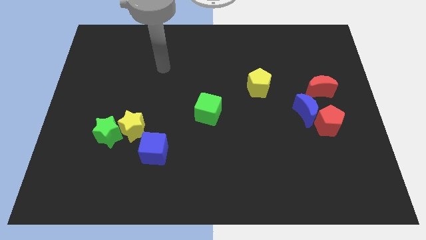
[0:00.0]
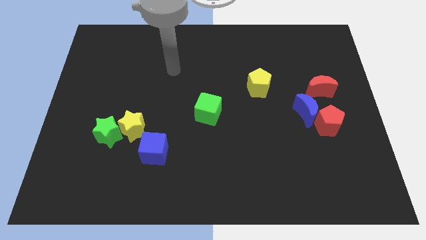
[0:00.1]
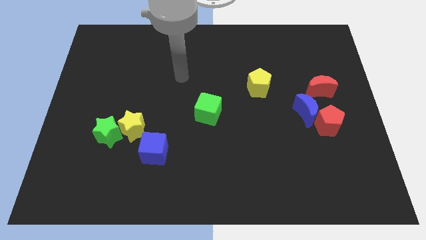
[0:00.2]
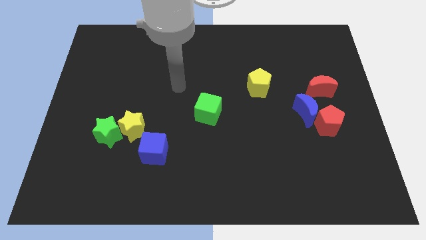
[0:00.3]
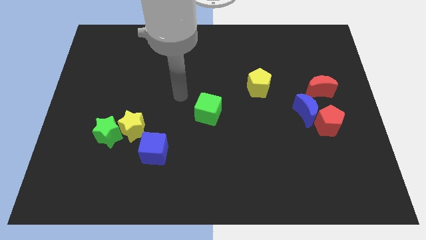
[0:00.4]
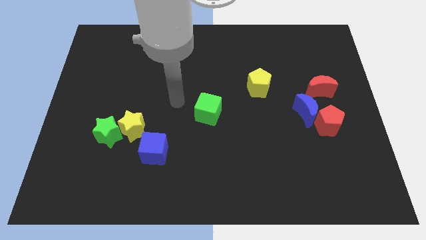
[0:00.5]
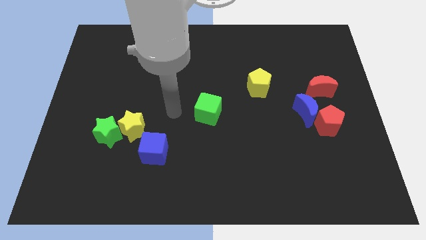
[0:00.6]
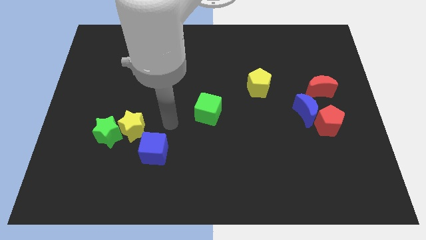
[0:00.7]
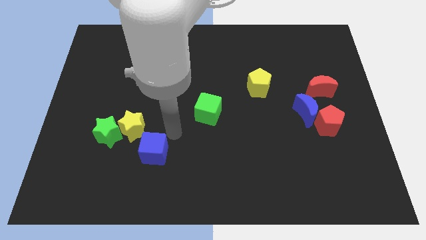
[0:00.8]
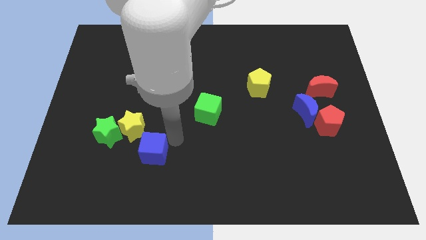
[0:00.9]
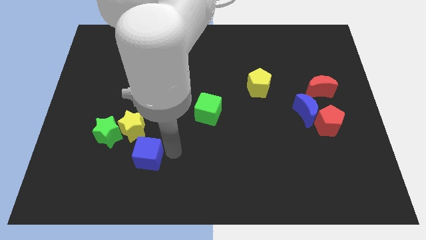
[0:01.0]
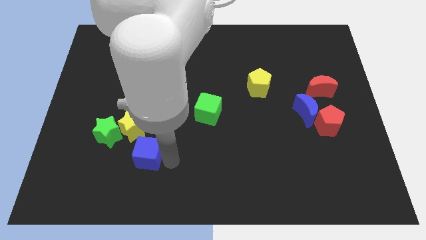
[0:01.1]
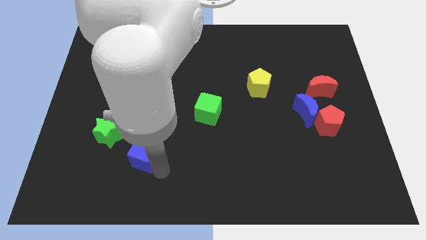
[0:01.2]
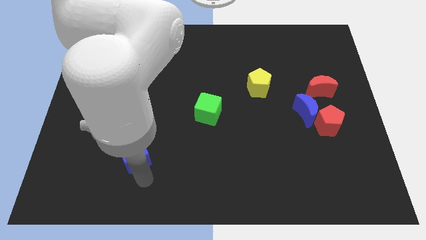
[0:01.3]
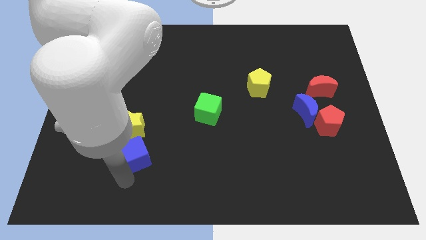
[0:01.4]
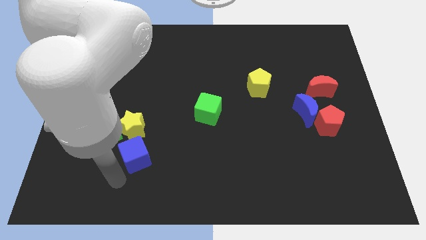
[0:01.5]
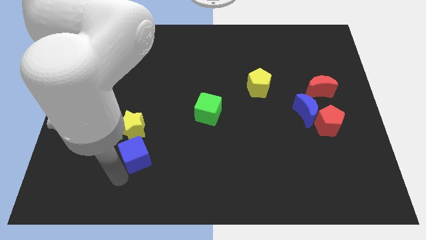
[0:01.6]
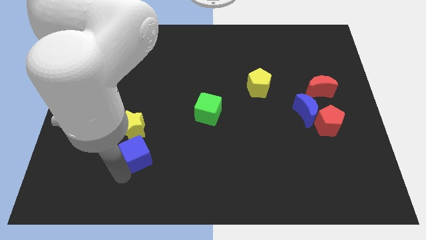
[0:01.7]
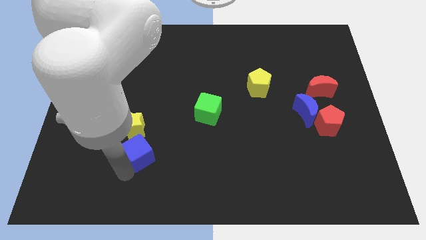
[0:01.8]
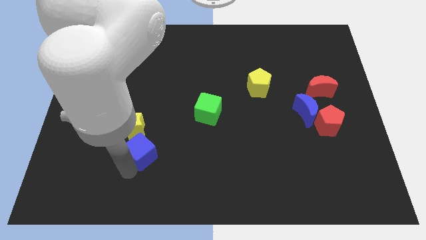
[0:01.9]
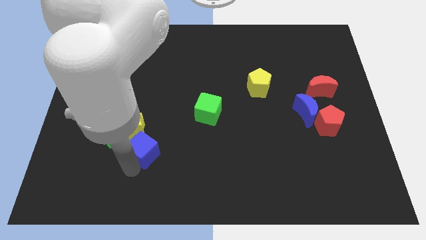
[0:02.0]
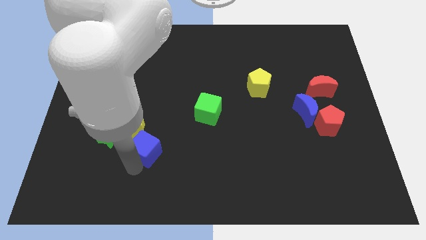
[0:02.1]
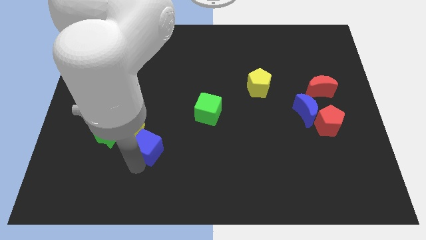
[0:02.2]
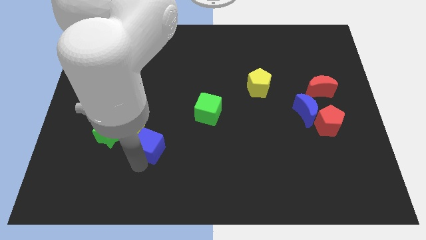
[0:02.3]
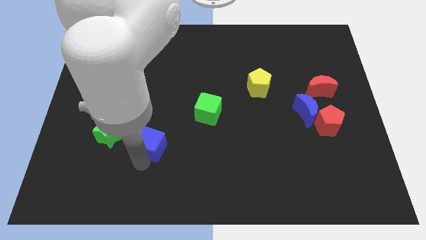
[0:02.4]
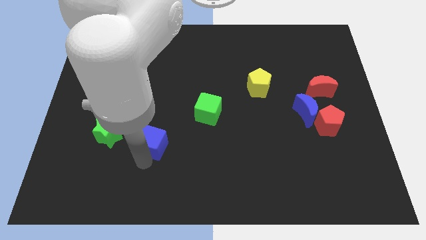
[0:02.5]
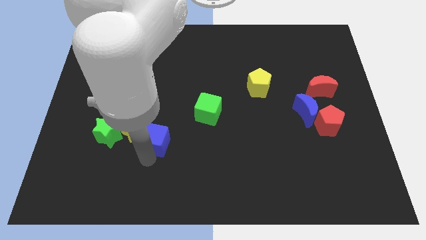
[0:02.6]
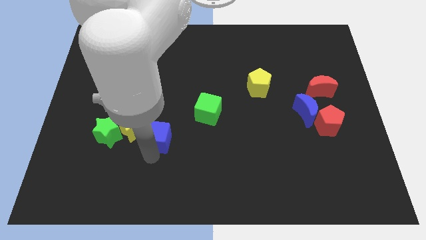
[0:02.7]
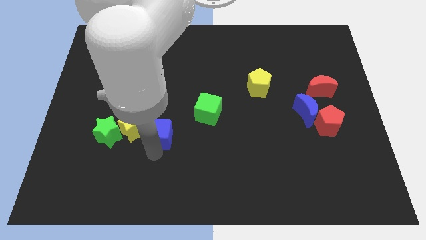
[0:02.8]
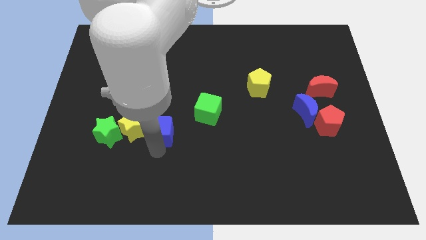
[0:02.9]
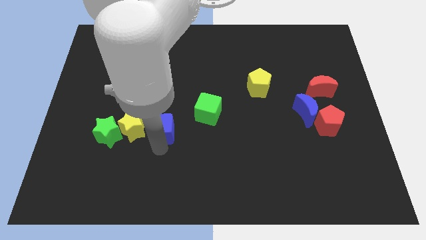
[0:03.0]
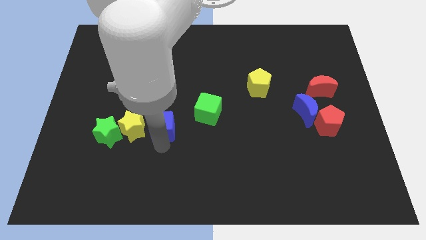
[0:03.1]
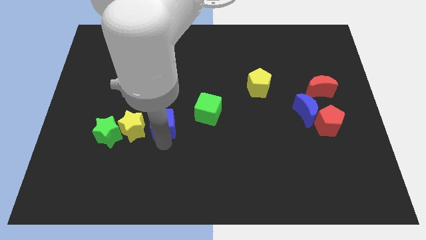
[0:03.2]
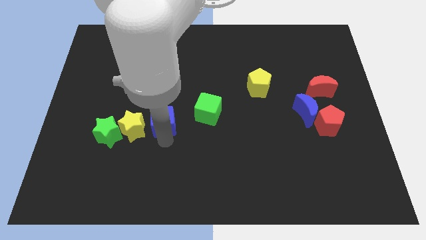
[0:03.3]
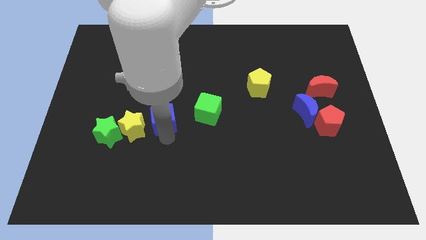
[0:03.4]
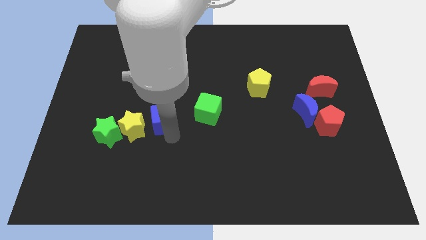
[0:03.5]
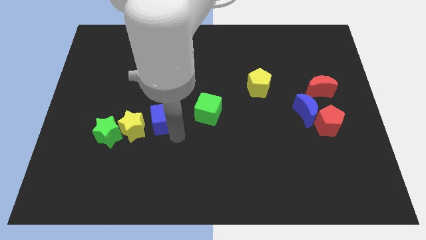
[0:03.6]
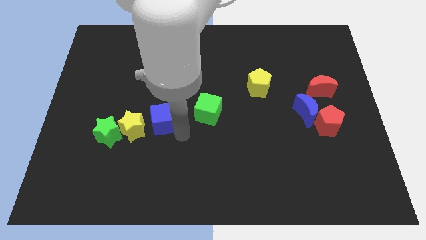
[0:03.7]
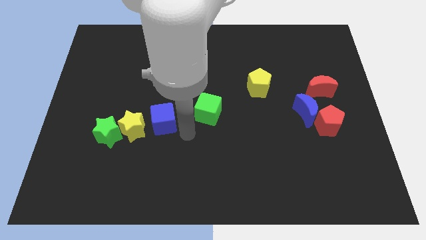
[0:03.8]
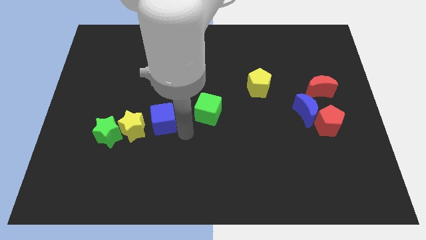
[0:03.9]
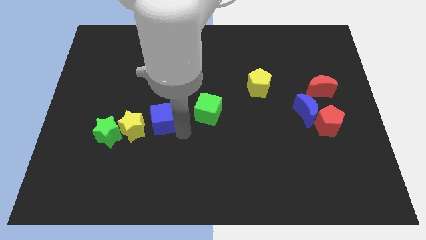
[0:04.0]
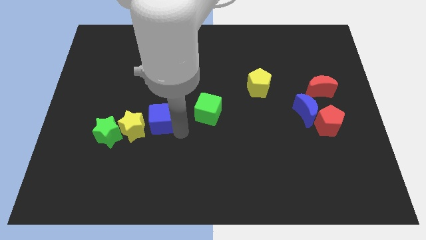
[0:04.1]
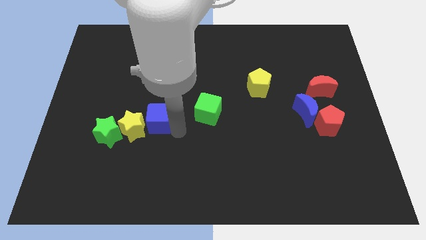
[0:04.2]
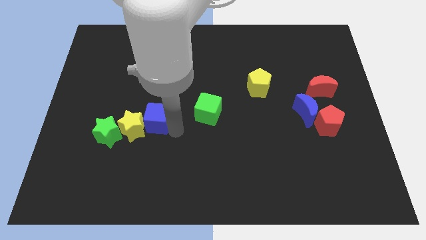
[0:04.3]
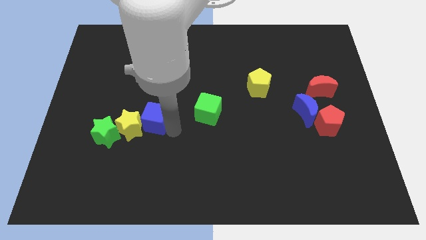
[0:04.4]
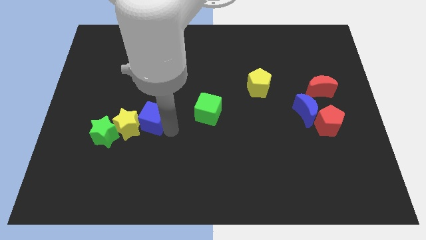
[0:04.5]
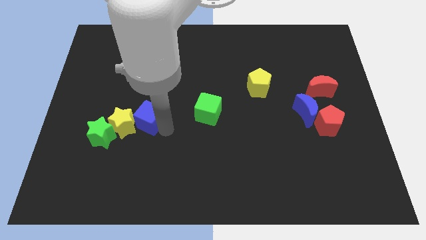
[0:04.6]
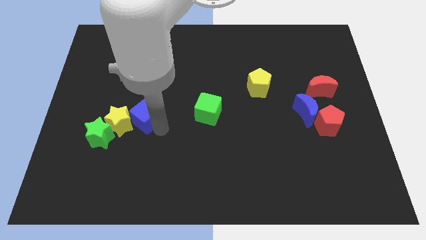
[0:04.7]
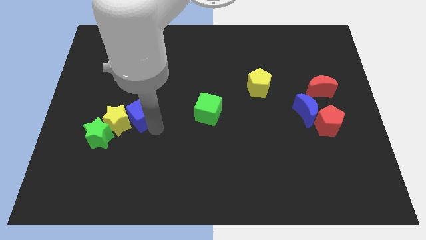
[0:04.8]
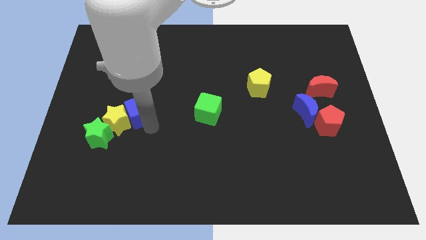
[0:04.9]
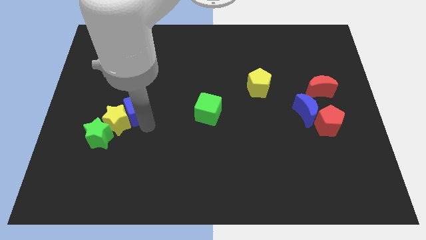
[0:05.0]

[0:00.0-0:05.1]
move the blue cube to the top of the yellow star

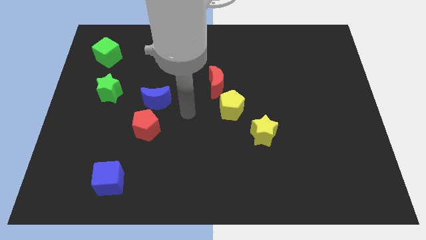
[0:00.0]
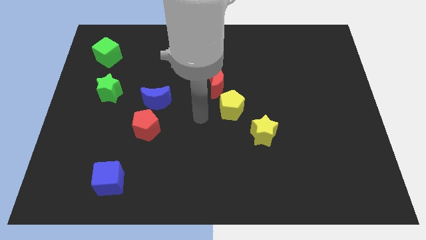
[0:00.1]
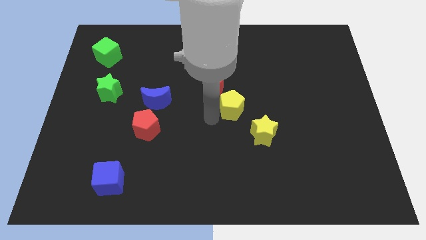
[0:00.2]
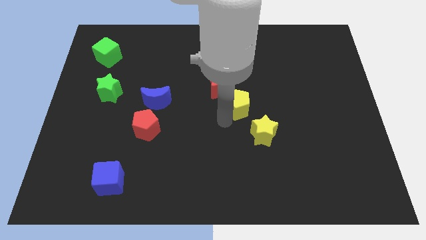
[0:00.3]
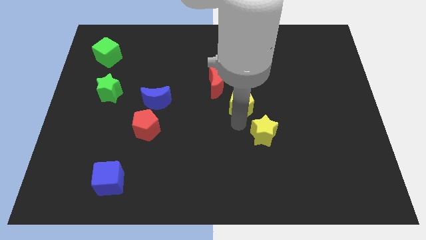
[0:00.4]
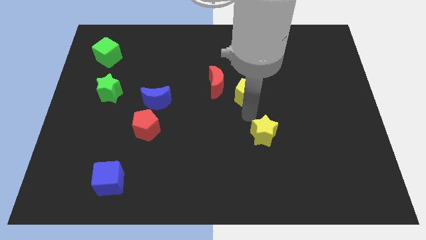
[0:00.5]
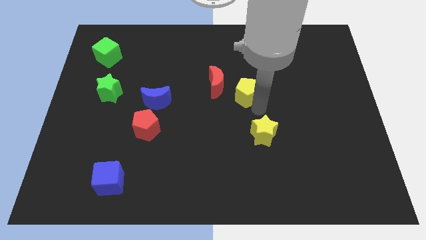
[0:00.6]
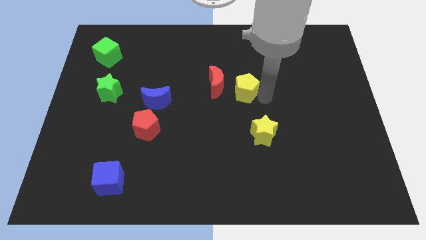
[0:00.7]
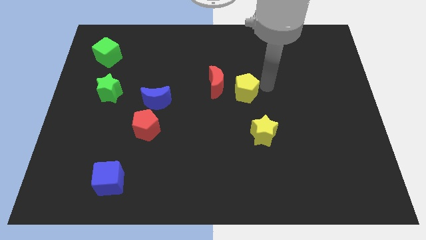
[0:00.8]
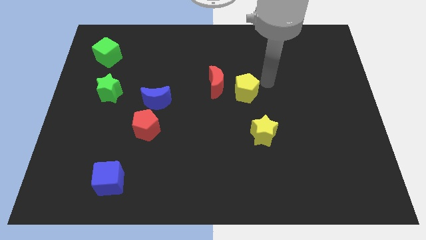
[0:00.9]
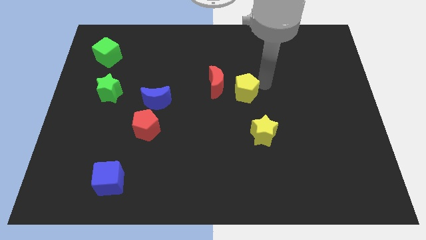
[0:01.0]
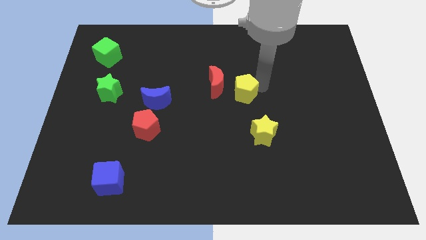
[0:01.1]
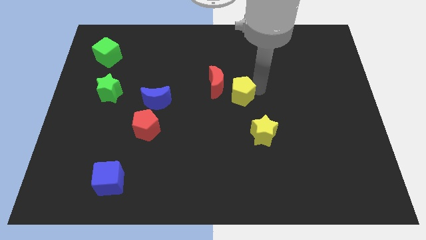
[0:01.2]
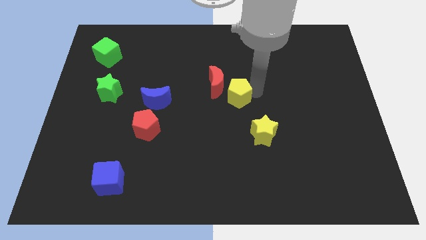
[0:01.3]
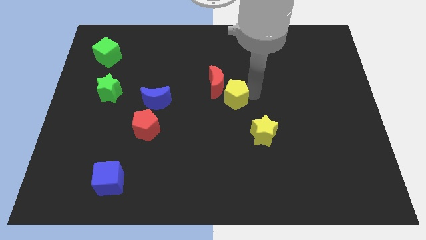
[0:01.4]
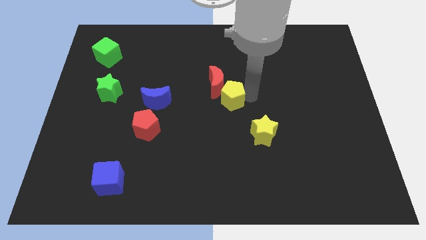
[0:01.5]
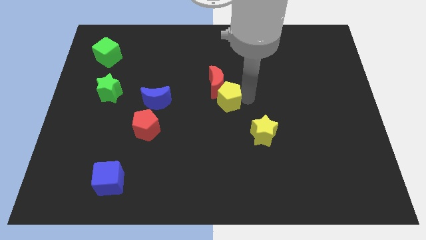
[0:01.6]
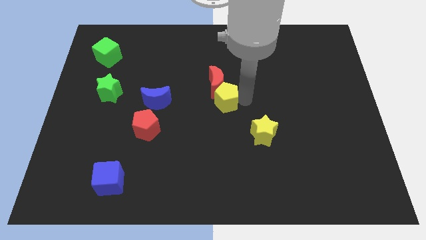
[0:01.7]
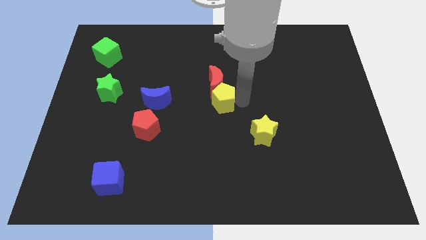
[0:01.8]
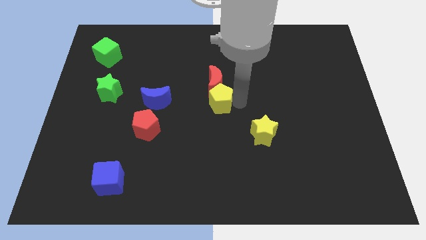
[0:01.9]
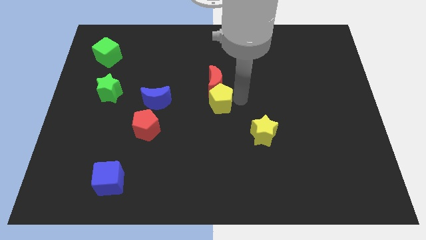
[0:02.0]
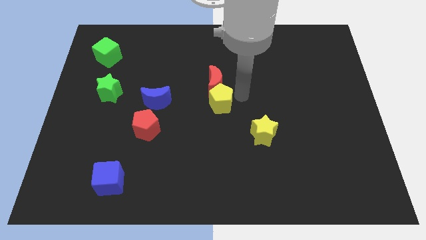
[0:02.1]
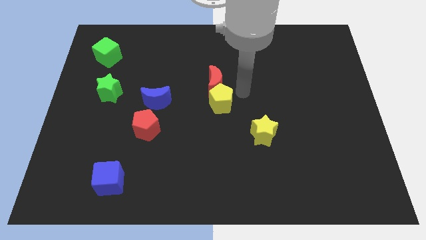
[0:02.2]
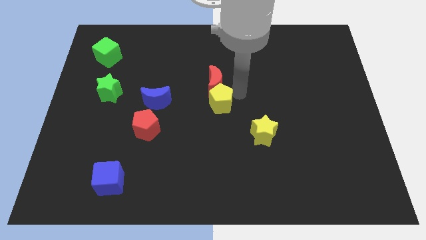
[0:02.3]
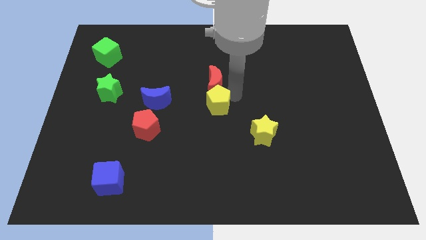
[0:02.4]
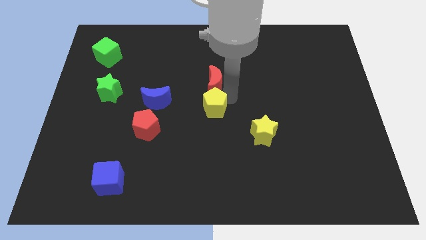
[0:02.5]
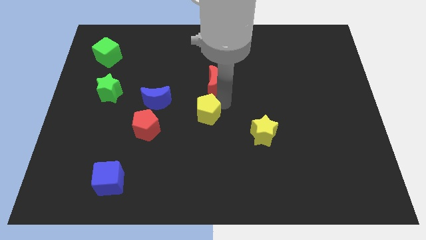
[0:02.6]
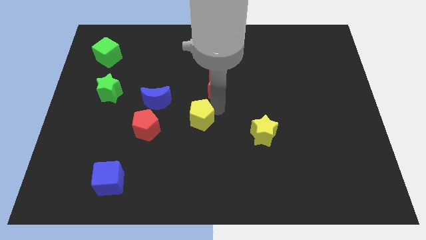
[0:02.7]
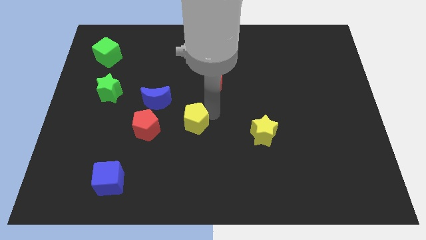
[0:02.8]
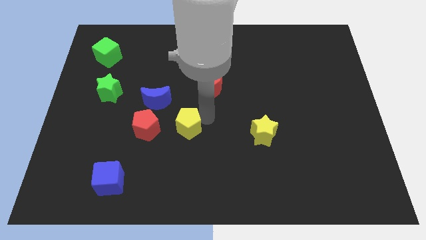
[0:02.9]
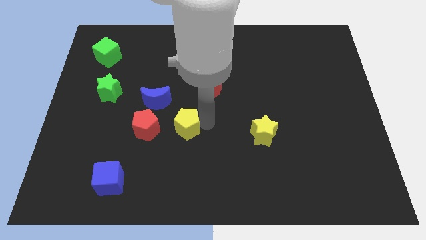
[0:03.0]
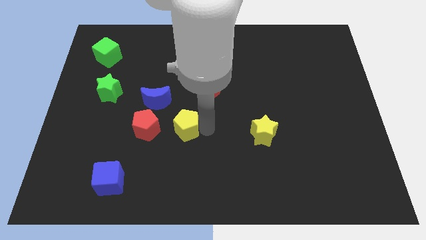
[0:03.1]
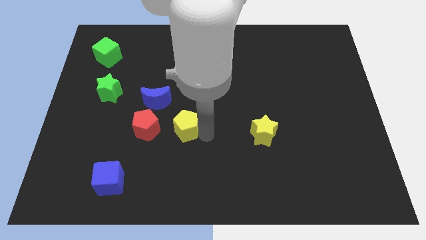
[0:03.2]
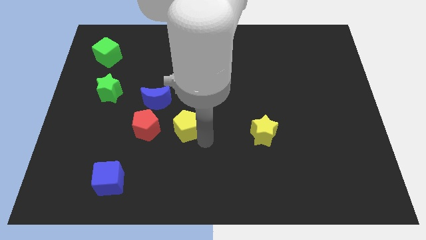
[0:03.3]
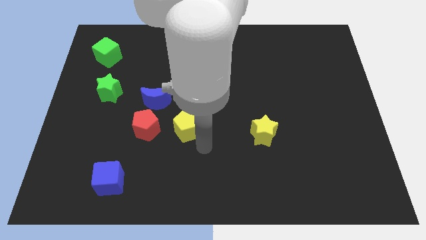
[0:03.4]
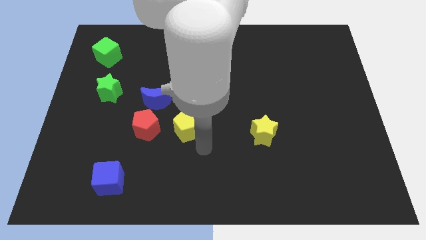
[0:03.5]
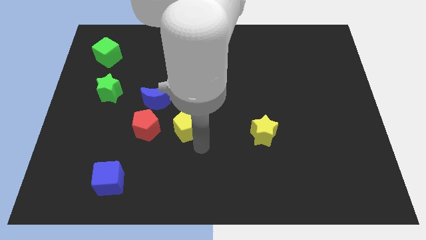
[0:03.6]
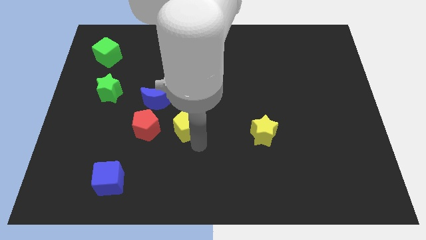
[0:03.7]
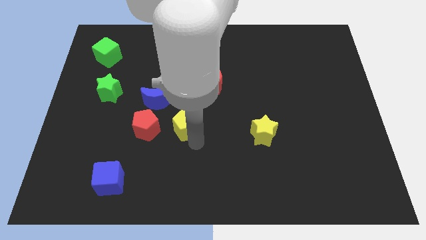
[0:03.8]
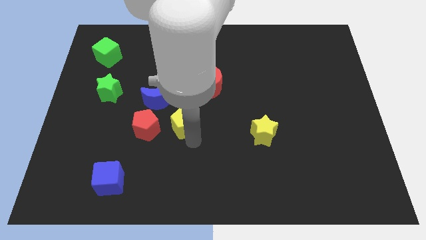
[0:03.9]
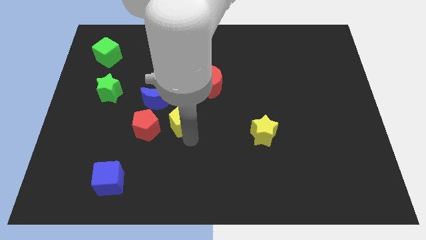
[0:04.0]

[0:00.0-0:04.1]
push the yellow pentagon diagonally up and to the right of the red pentagon
